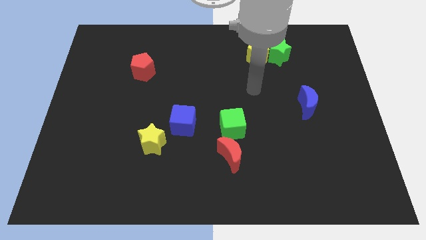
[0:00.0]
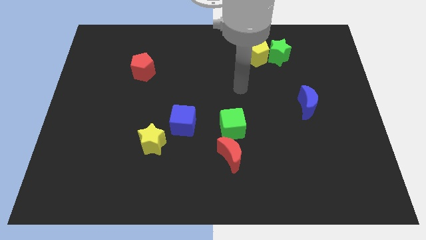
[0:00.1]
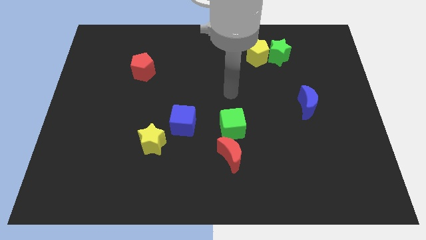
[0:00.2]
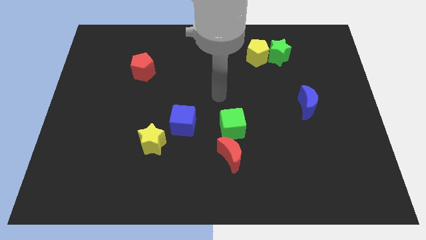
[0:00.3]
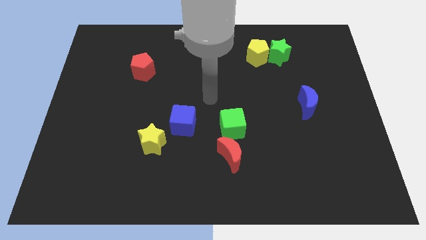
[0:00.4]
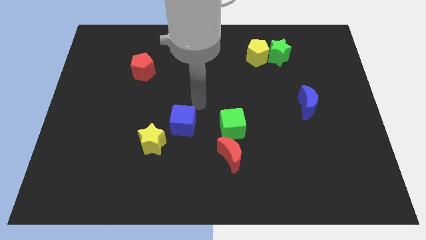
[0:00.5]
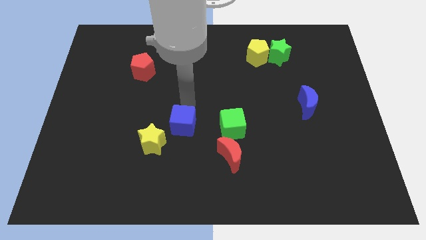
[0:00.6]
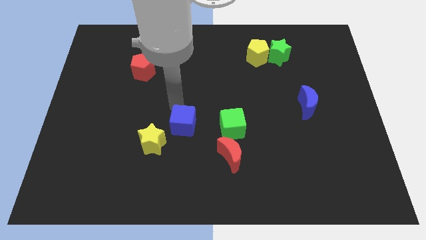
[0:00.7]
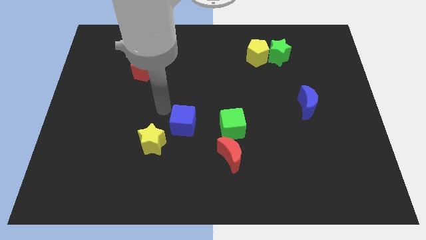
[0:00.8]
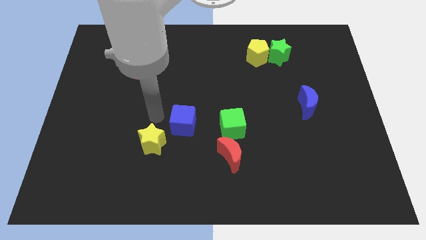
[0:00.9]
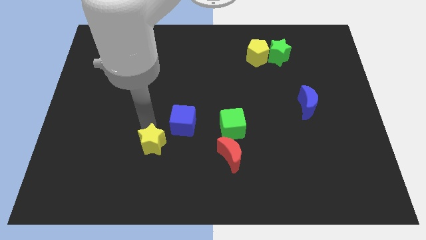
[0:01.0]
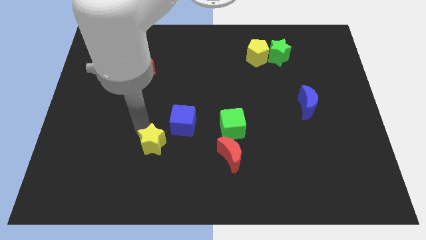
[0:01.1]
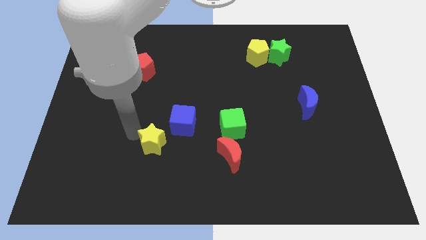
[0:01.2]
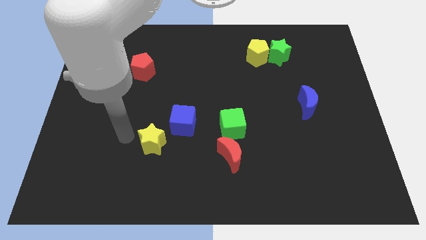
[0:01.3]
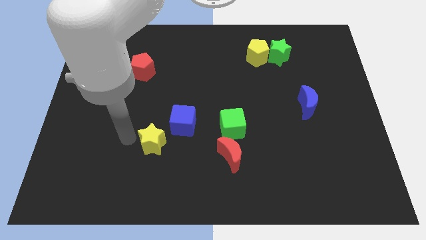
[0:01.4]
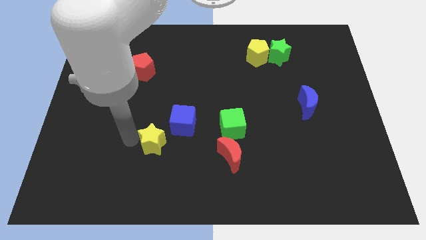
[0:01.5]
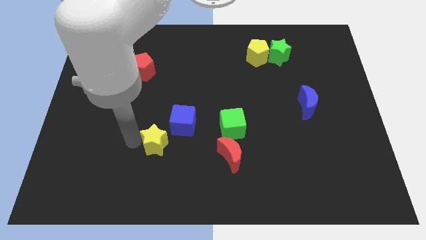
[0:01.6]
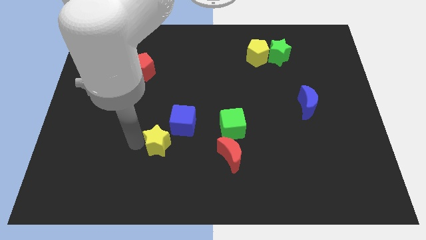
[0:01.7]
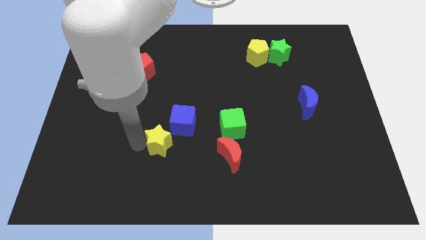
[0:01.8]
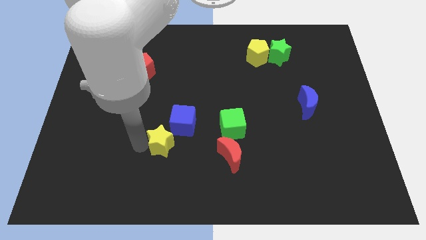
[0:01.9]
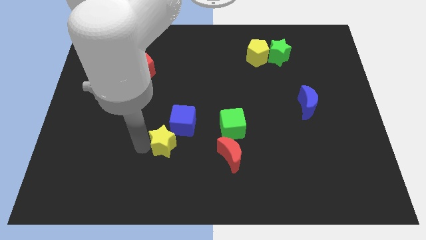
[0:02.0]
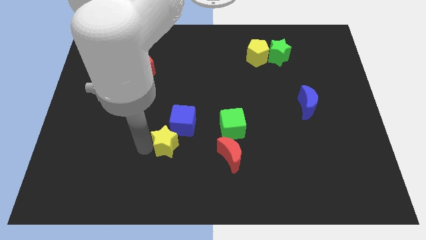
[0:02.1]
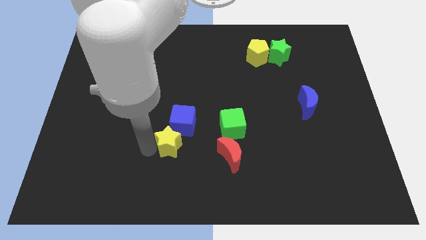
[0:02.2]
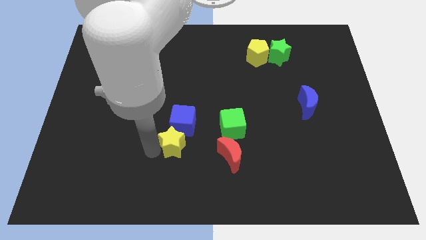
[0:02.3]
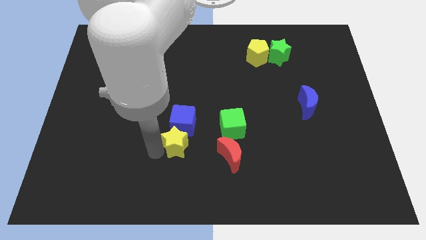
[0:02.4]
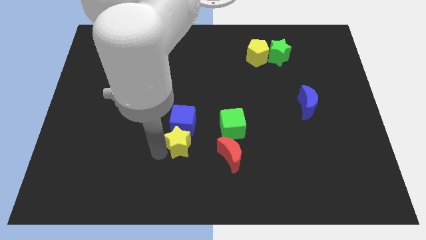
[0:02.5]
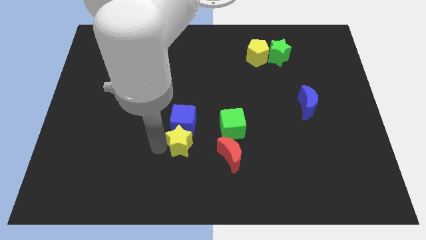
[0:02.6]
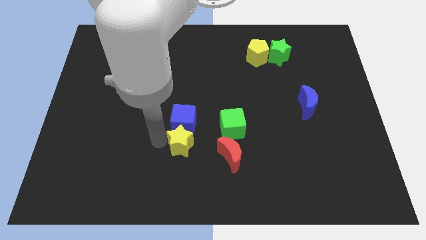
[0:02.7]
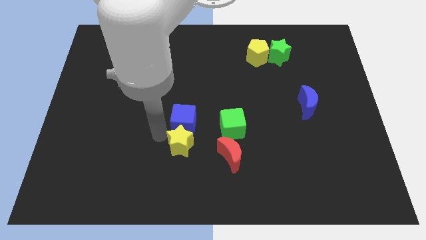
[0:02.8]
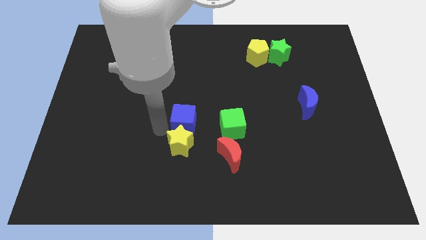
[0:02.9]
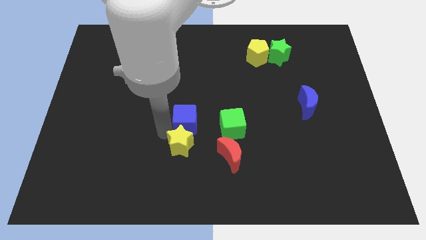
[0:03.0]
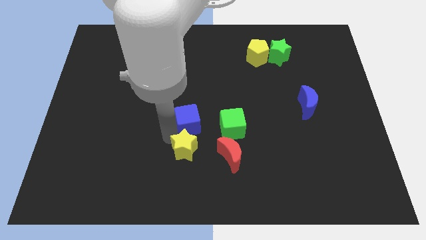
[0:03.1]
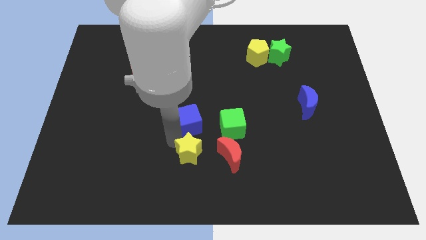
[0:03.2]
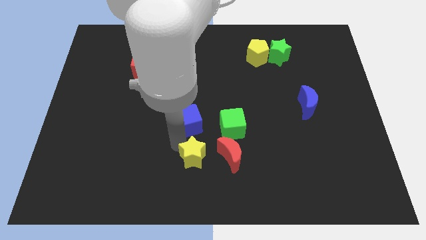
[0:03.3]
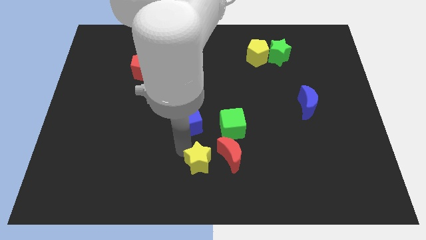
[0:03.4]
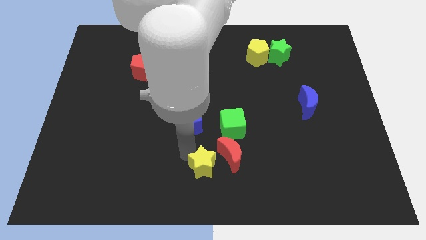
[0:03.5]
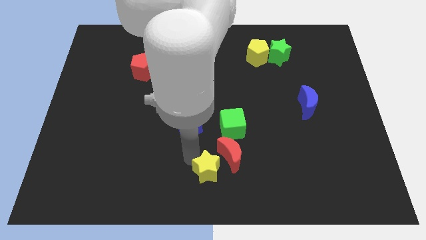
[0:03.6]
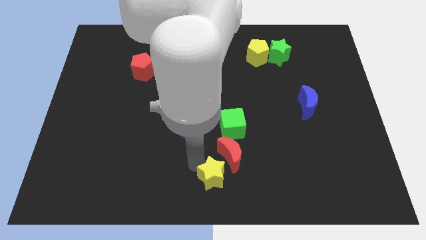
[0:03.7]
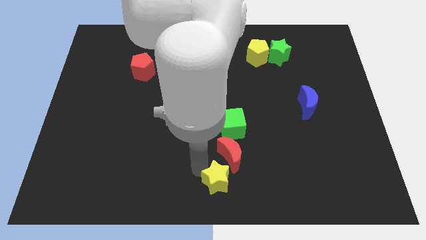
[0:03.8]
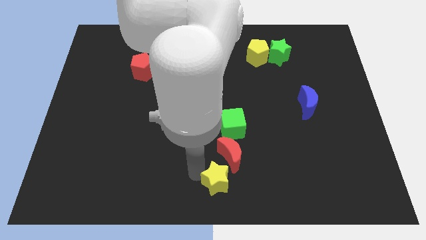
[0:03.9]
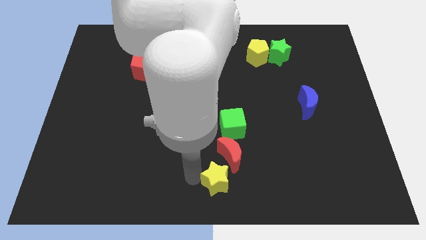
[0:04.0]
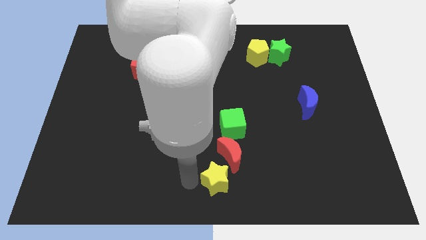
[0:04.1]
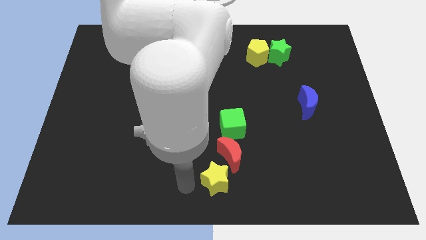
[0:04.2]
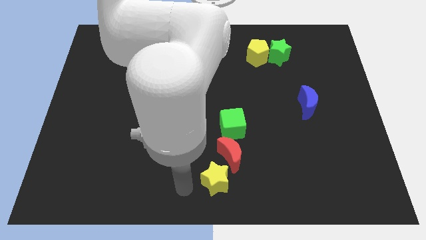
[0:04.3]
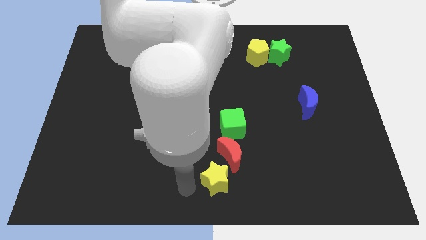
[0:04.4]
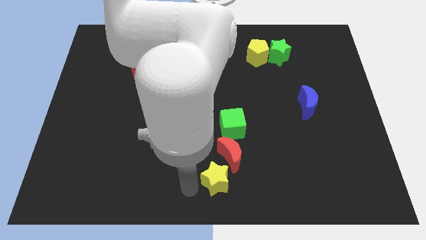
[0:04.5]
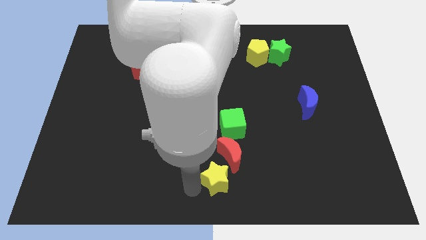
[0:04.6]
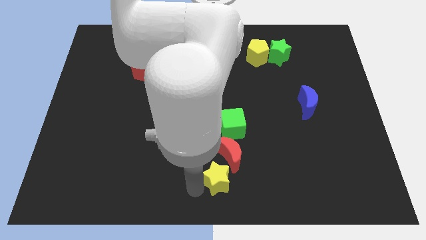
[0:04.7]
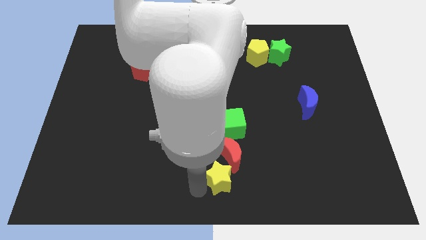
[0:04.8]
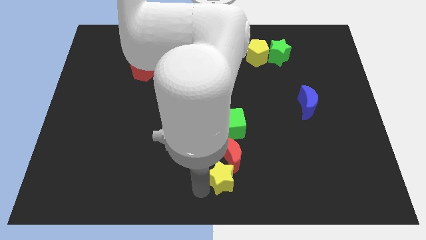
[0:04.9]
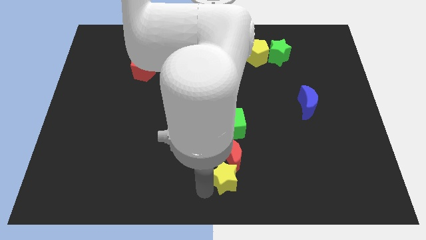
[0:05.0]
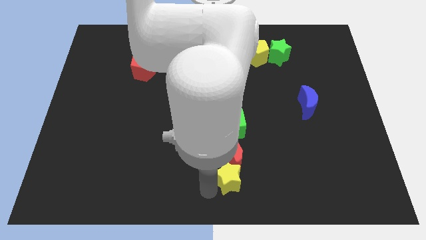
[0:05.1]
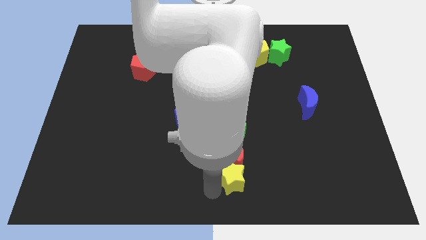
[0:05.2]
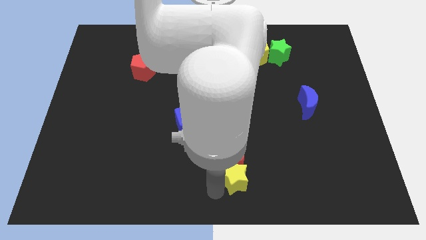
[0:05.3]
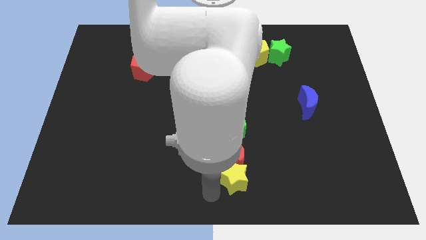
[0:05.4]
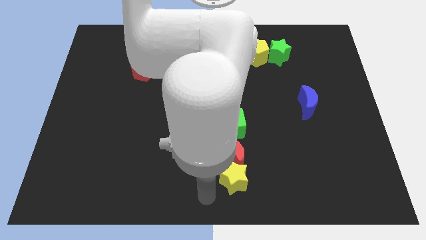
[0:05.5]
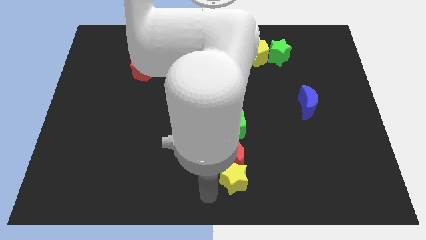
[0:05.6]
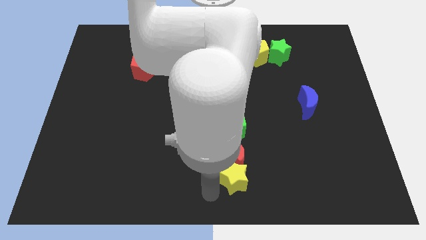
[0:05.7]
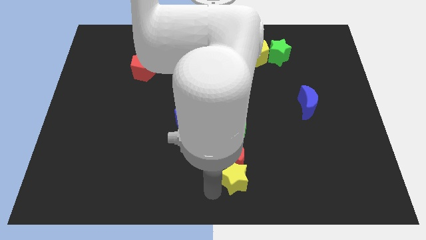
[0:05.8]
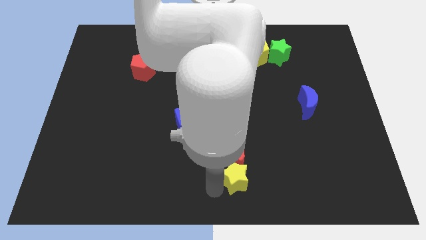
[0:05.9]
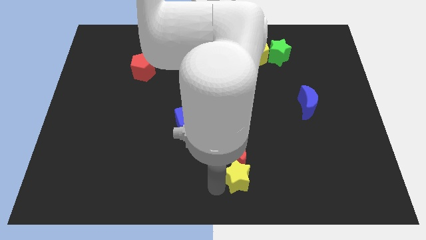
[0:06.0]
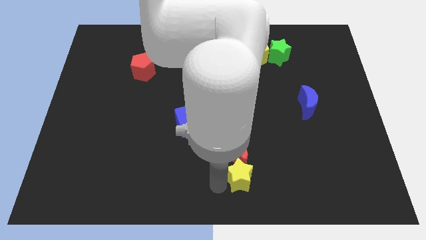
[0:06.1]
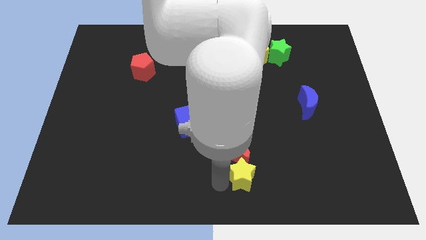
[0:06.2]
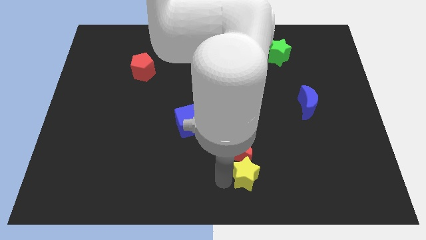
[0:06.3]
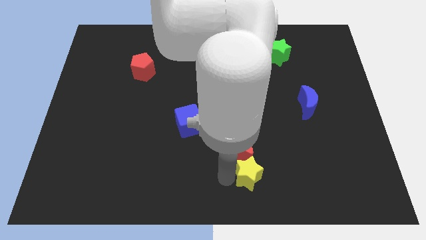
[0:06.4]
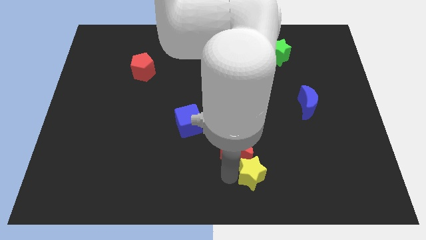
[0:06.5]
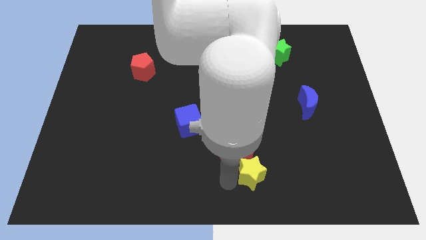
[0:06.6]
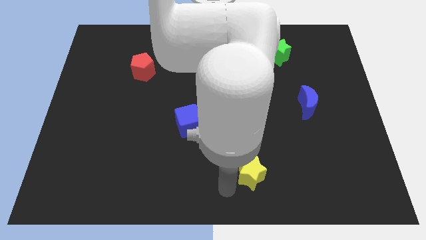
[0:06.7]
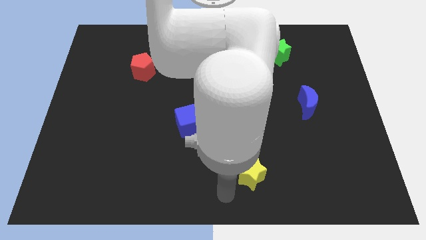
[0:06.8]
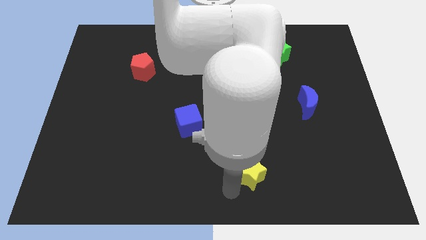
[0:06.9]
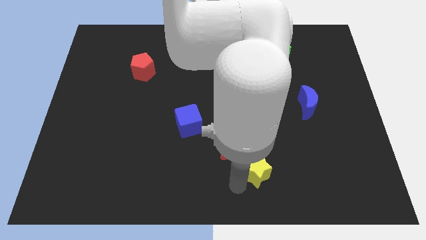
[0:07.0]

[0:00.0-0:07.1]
push the yellow star right

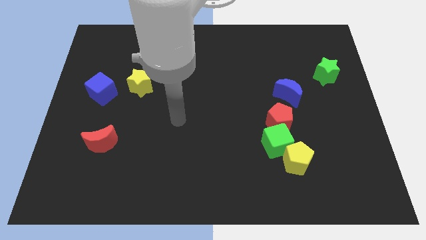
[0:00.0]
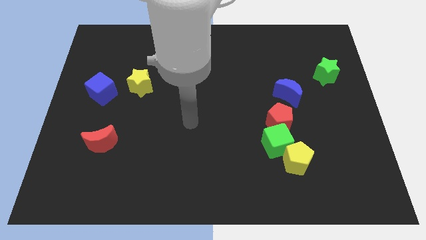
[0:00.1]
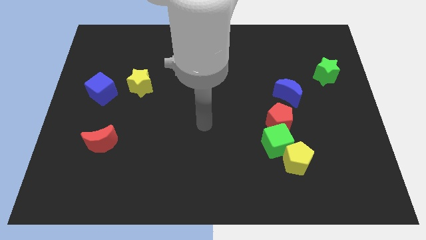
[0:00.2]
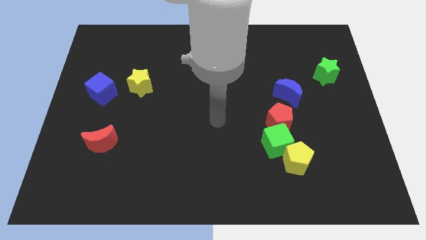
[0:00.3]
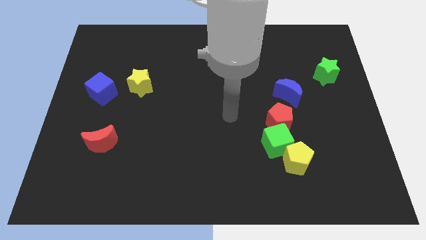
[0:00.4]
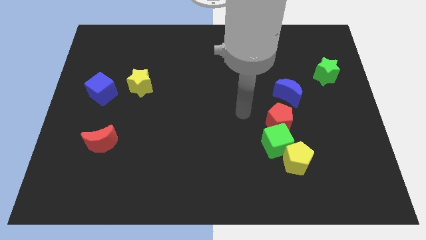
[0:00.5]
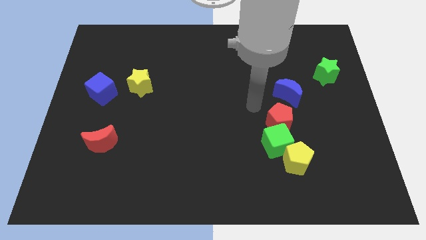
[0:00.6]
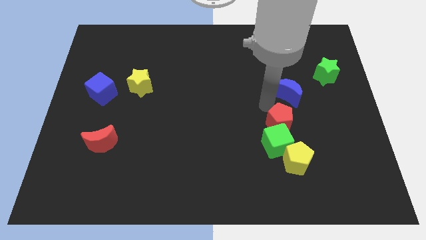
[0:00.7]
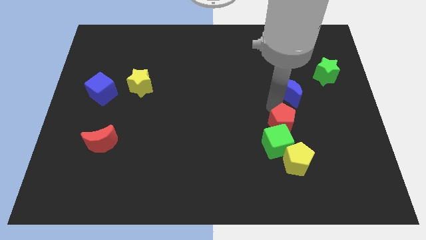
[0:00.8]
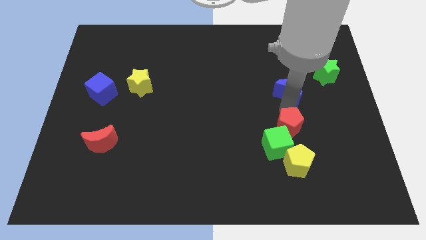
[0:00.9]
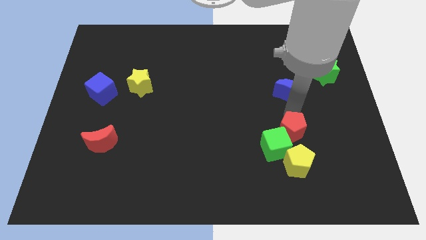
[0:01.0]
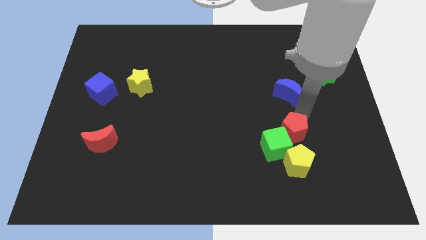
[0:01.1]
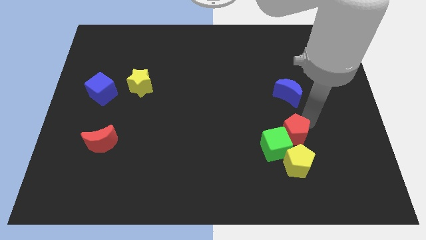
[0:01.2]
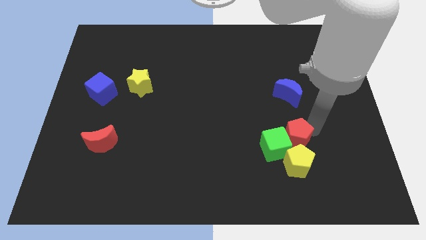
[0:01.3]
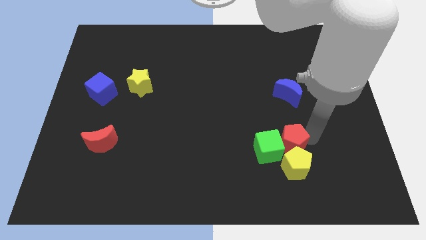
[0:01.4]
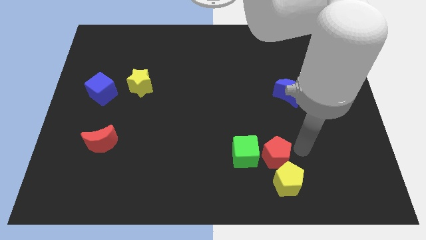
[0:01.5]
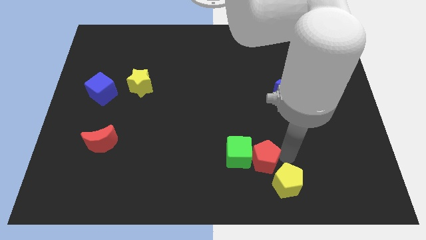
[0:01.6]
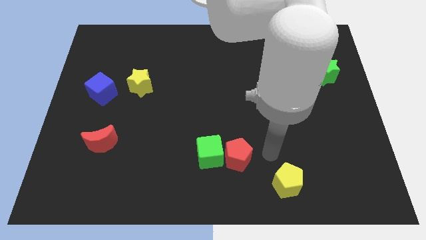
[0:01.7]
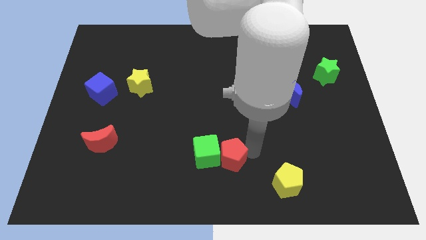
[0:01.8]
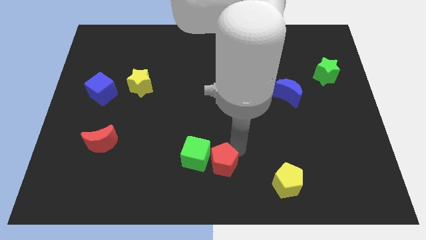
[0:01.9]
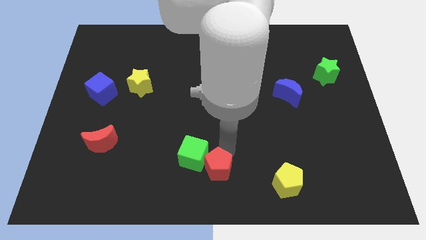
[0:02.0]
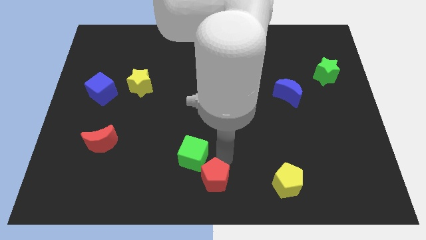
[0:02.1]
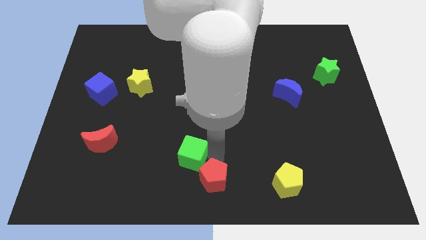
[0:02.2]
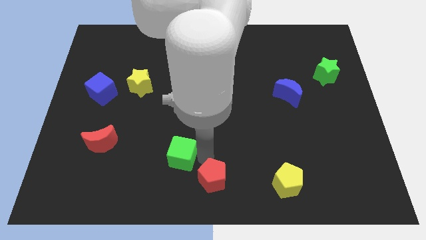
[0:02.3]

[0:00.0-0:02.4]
push the green cube to the left
